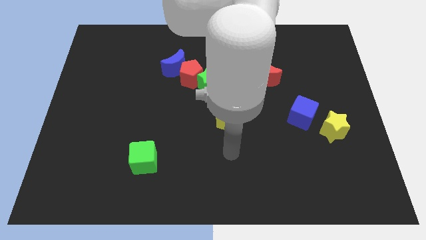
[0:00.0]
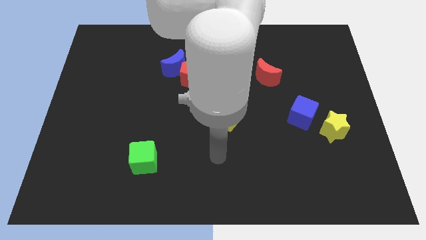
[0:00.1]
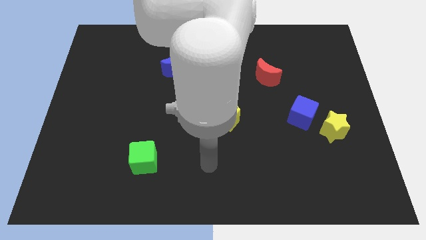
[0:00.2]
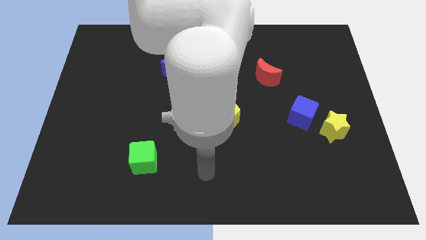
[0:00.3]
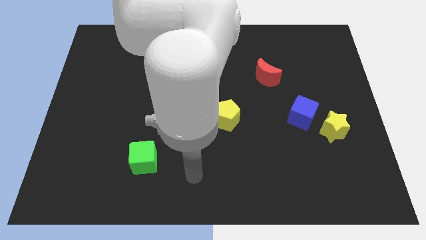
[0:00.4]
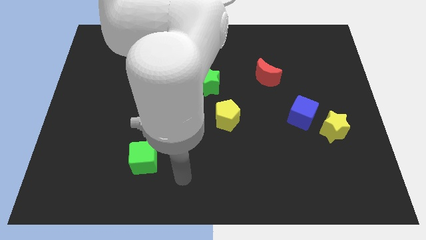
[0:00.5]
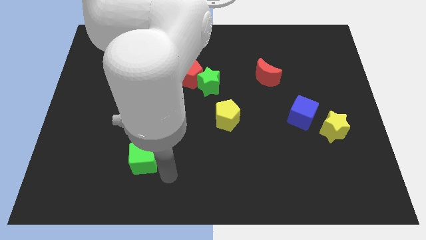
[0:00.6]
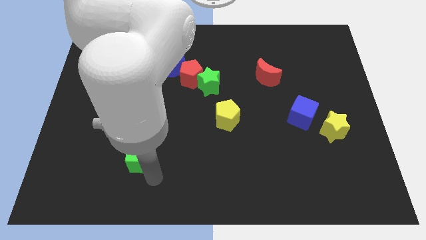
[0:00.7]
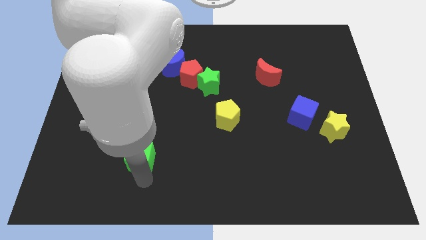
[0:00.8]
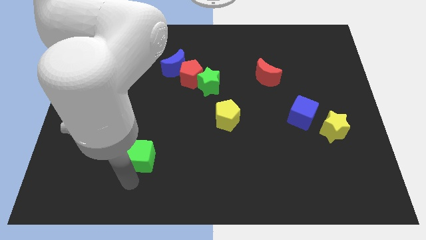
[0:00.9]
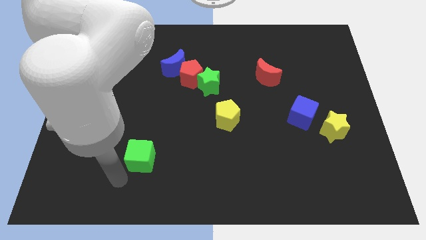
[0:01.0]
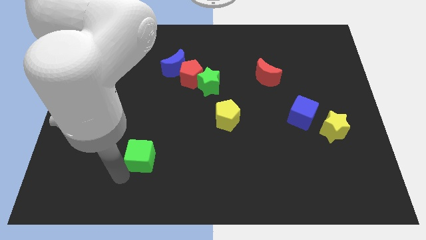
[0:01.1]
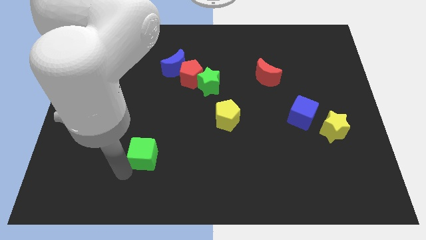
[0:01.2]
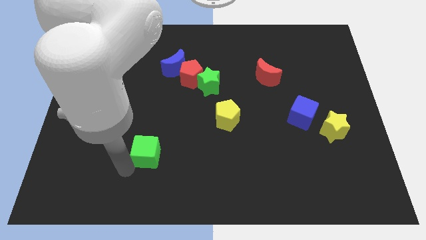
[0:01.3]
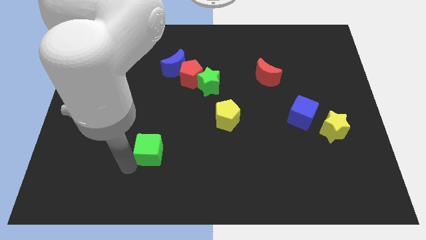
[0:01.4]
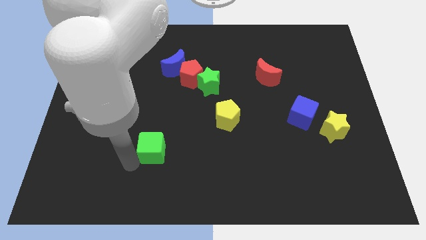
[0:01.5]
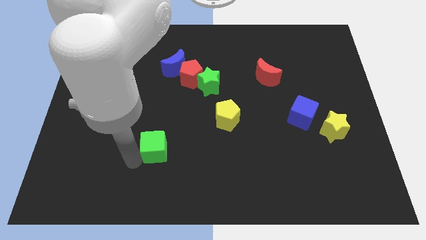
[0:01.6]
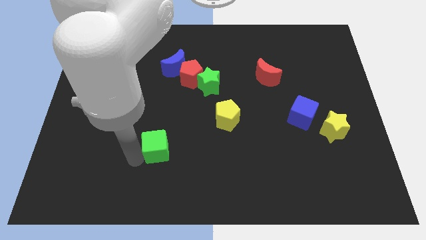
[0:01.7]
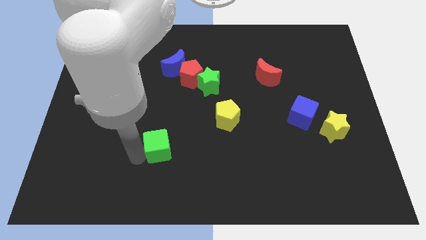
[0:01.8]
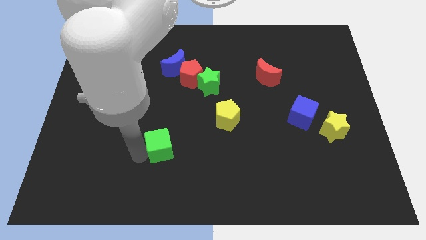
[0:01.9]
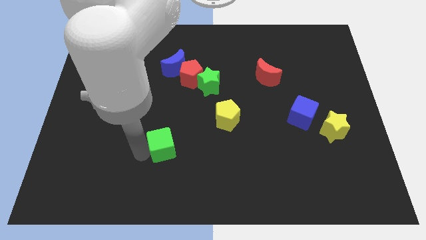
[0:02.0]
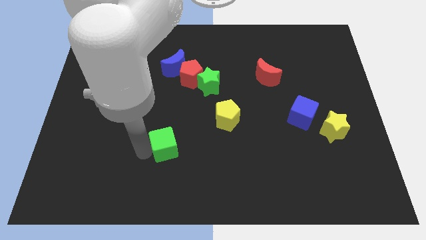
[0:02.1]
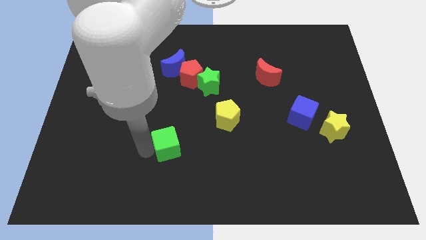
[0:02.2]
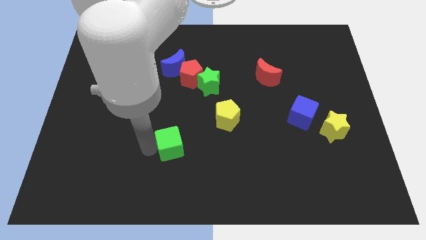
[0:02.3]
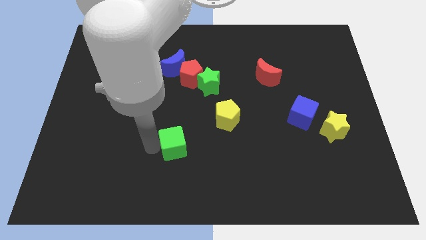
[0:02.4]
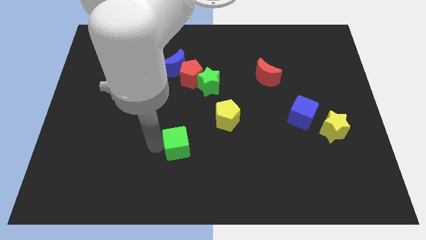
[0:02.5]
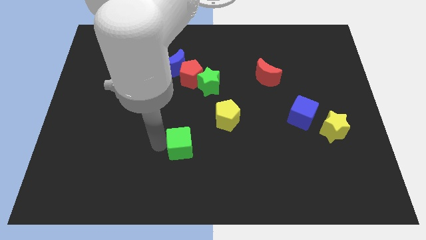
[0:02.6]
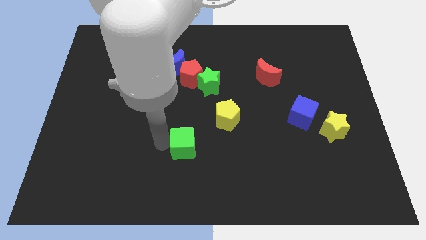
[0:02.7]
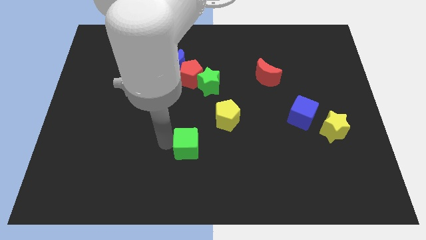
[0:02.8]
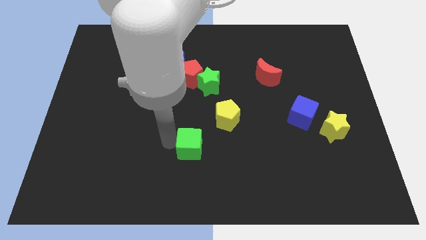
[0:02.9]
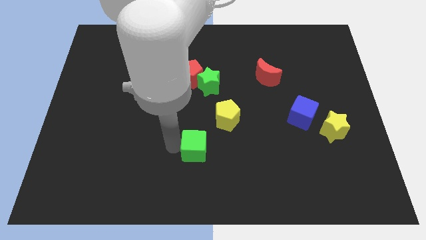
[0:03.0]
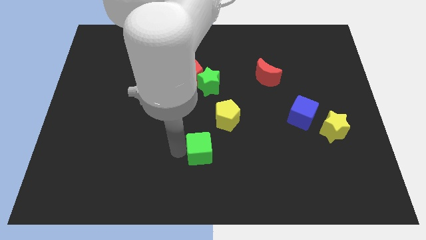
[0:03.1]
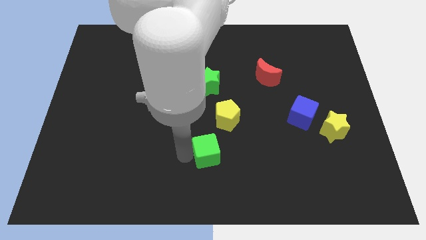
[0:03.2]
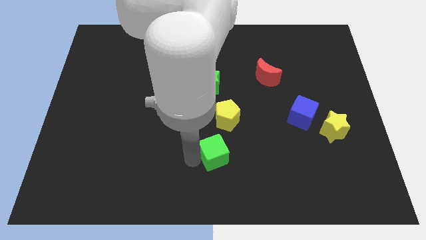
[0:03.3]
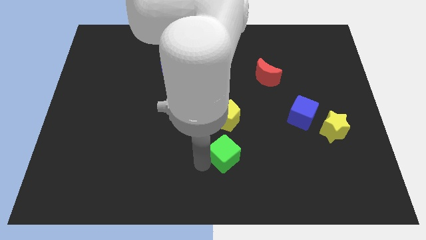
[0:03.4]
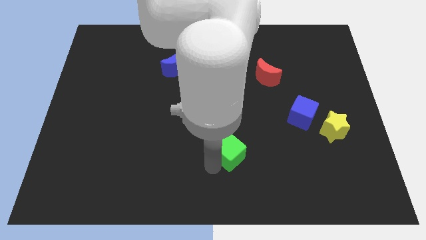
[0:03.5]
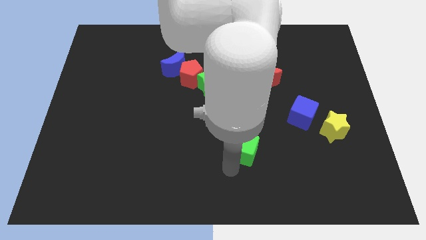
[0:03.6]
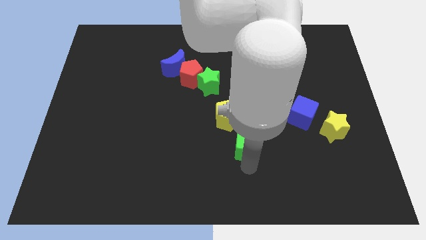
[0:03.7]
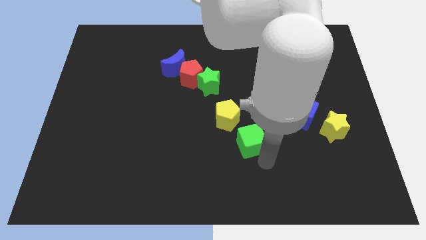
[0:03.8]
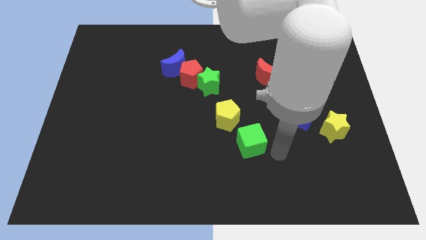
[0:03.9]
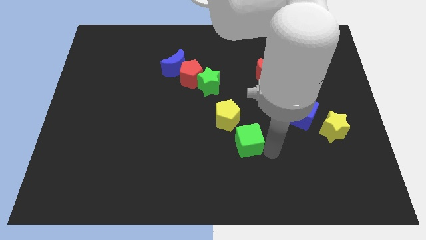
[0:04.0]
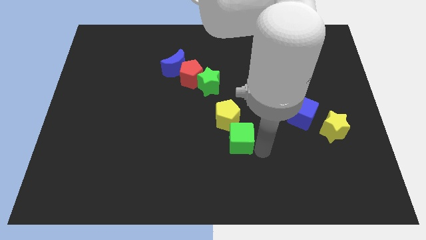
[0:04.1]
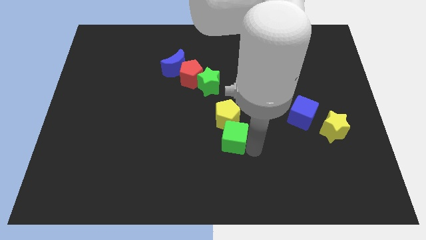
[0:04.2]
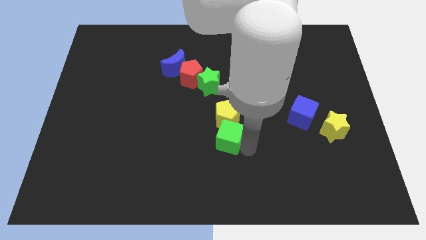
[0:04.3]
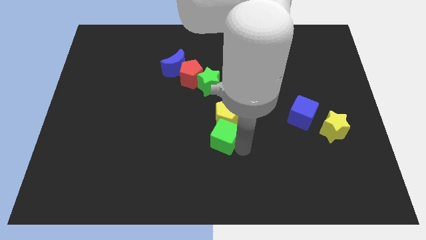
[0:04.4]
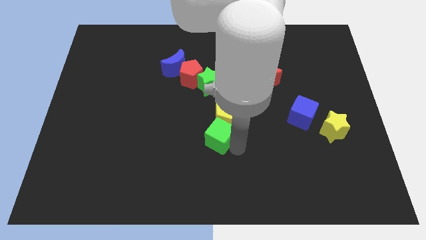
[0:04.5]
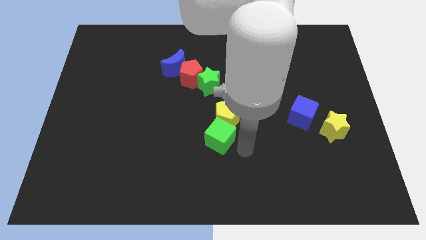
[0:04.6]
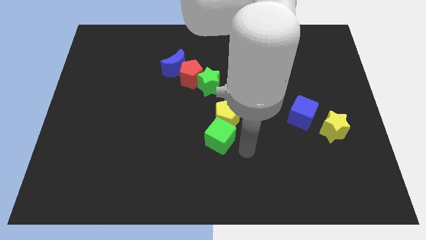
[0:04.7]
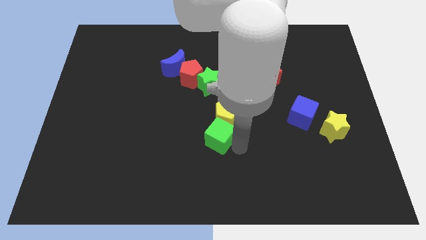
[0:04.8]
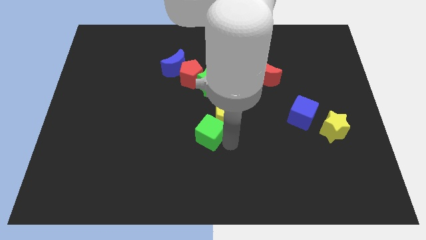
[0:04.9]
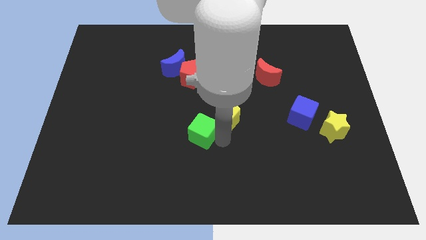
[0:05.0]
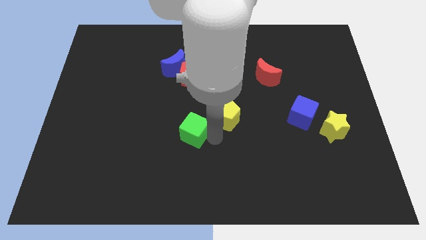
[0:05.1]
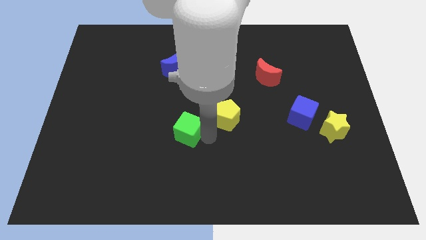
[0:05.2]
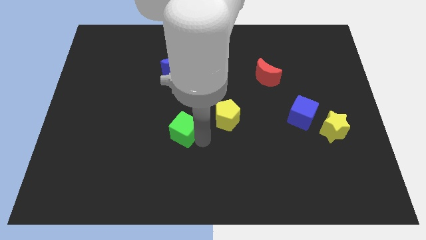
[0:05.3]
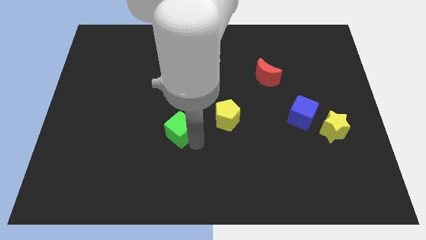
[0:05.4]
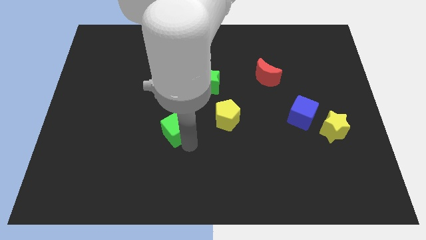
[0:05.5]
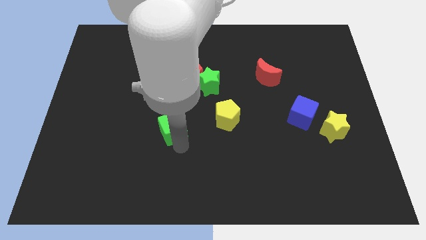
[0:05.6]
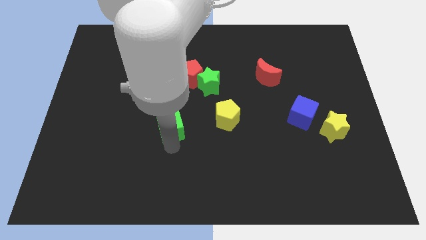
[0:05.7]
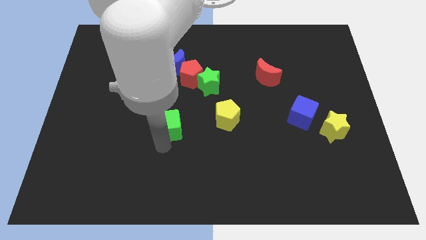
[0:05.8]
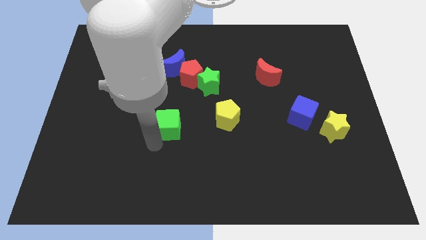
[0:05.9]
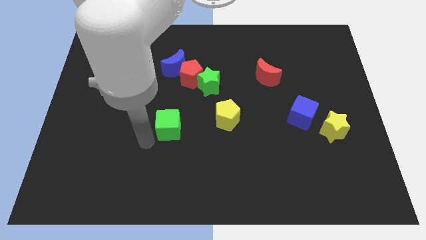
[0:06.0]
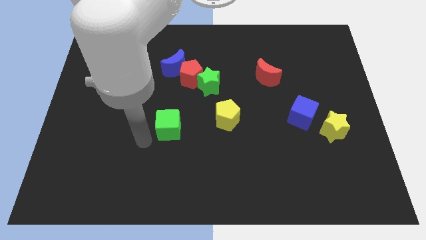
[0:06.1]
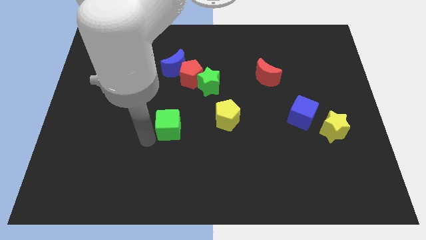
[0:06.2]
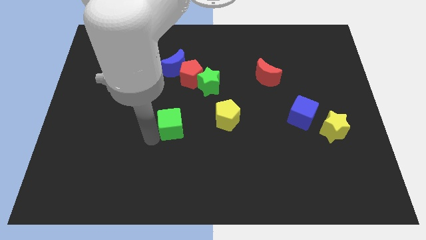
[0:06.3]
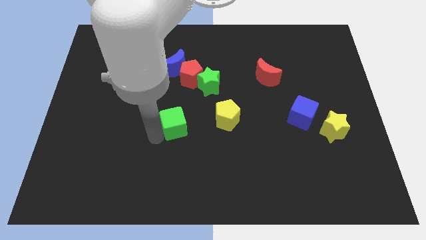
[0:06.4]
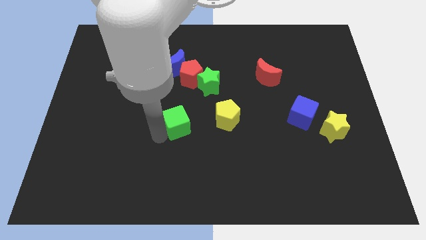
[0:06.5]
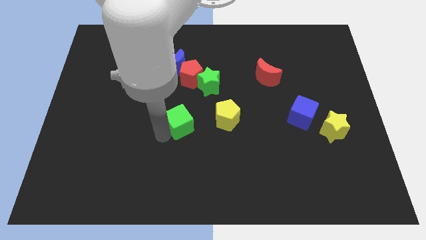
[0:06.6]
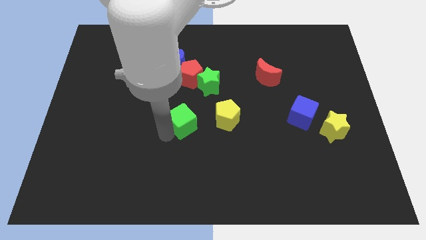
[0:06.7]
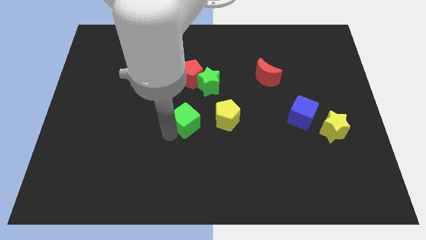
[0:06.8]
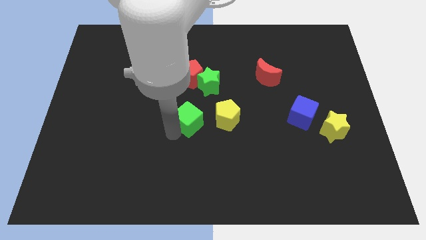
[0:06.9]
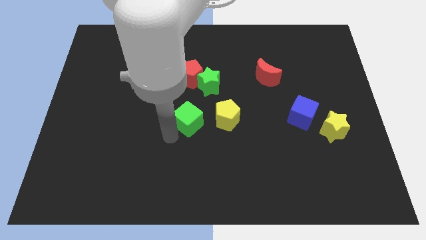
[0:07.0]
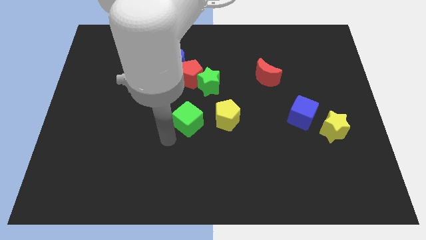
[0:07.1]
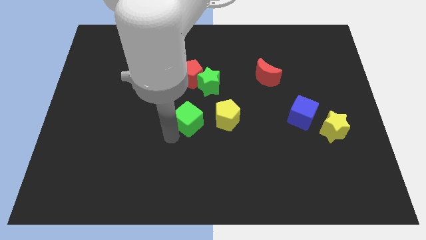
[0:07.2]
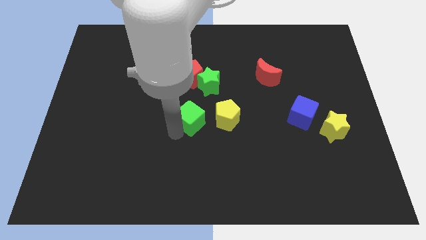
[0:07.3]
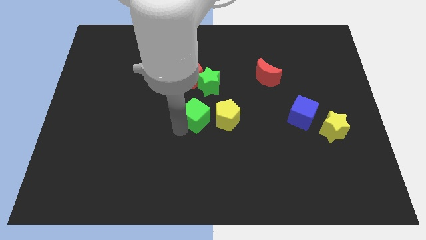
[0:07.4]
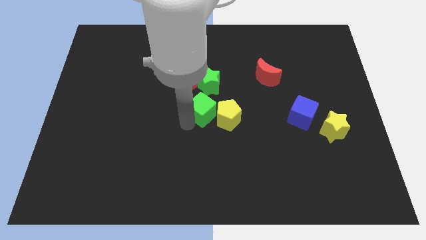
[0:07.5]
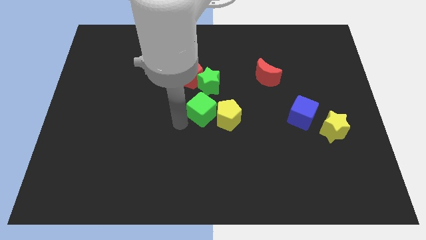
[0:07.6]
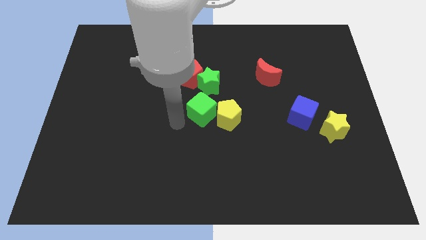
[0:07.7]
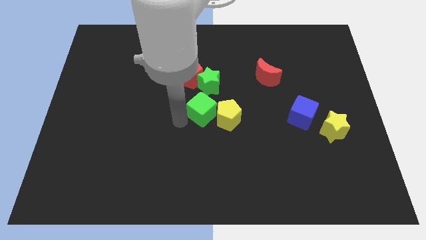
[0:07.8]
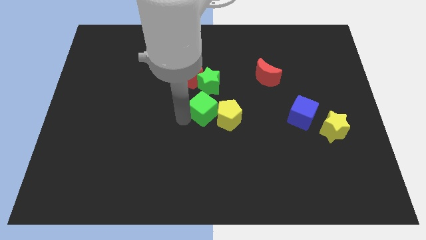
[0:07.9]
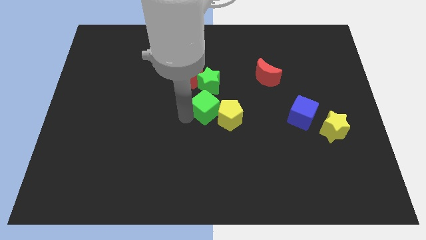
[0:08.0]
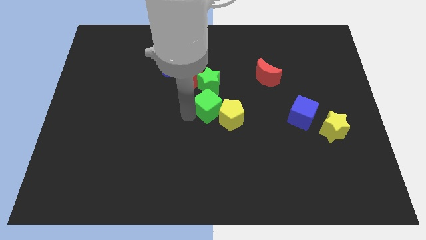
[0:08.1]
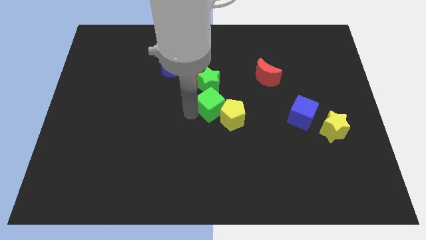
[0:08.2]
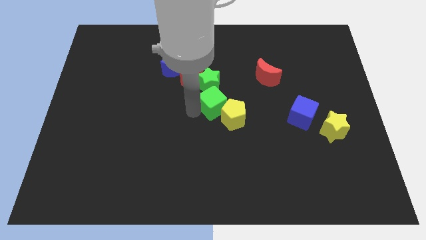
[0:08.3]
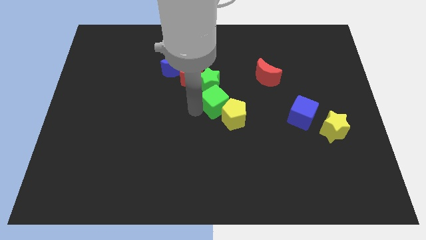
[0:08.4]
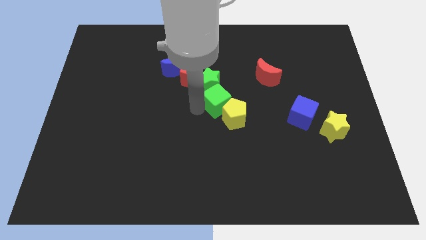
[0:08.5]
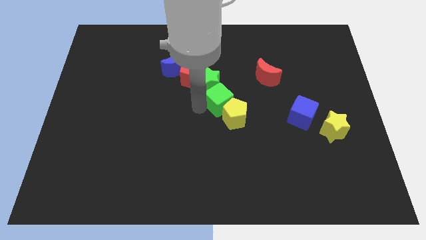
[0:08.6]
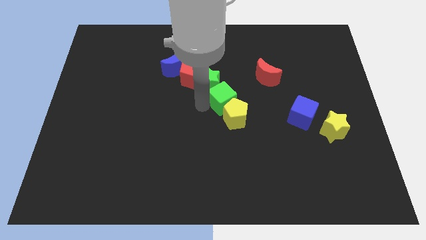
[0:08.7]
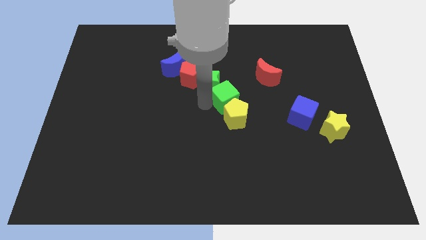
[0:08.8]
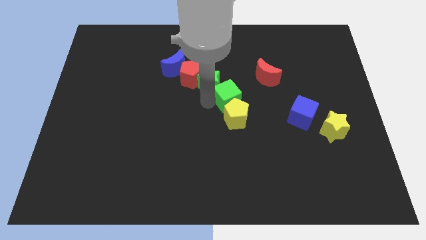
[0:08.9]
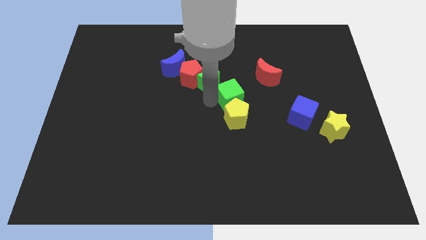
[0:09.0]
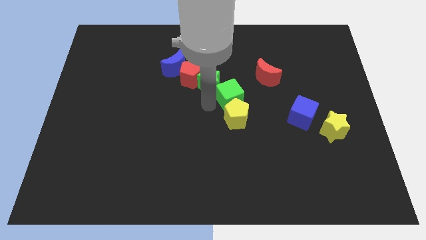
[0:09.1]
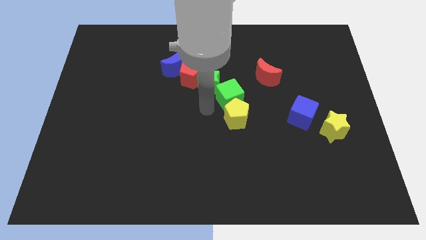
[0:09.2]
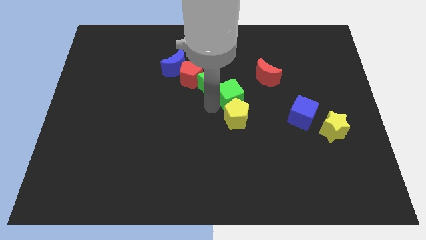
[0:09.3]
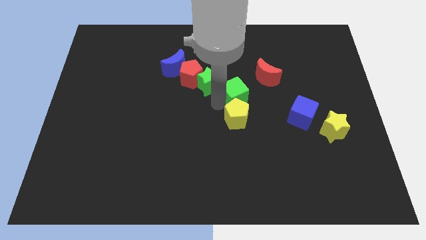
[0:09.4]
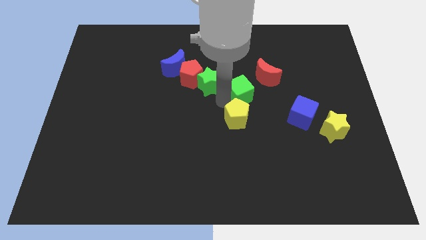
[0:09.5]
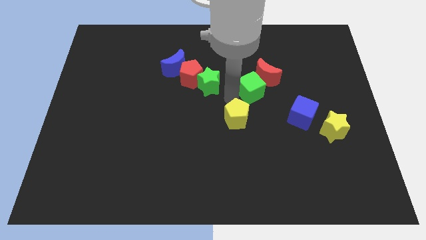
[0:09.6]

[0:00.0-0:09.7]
move the green cube towards the red moon
